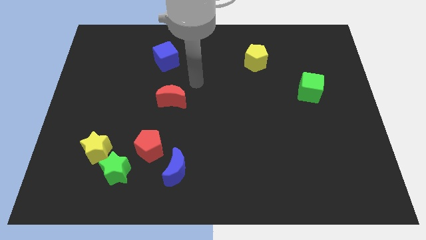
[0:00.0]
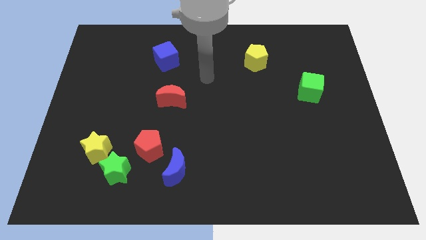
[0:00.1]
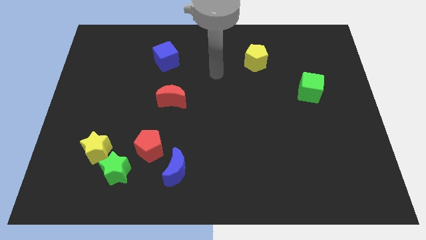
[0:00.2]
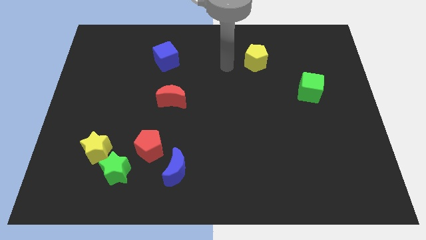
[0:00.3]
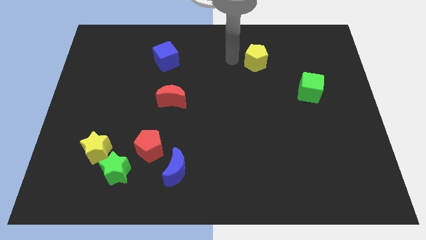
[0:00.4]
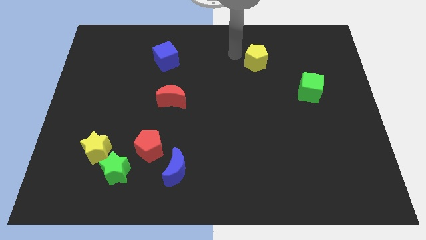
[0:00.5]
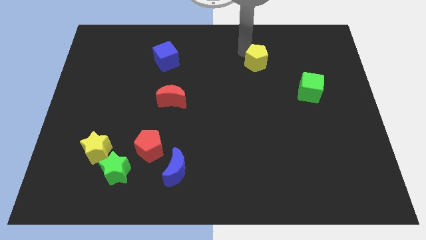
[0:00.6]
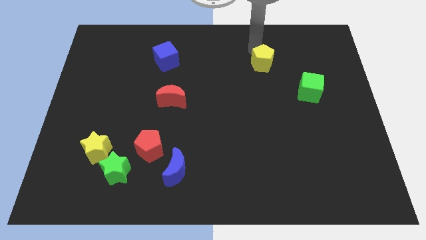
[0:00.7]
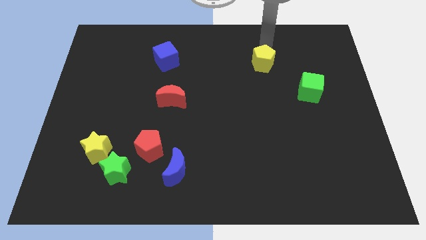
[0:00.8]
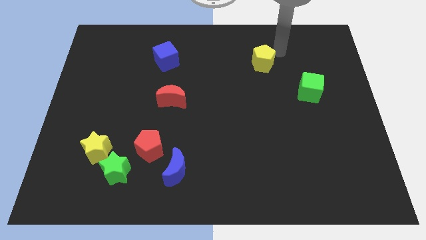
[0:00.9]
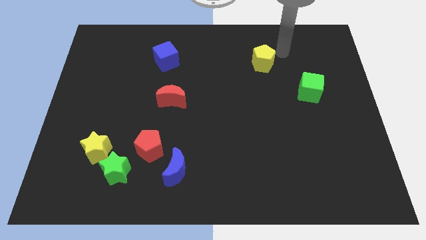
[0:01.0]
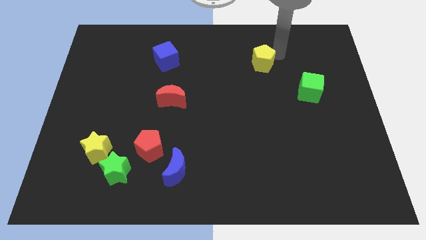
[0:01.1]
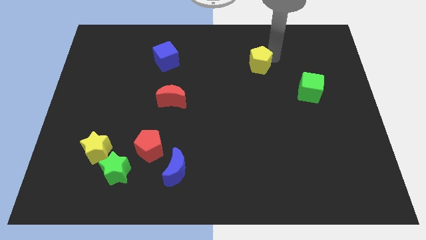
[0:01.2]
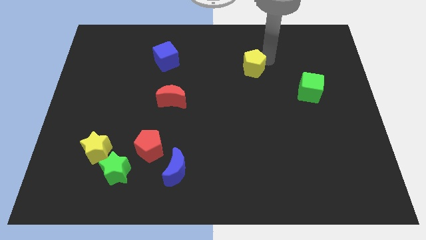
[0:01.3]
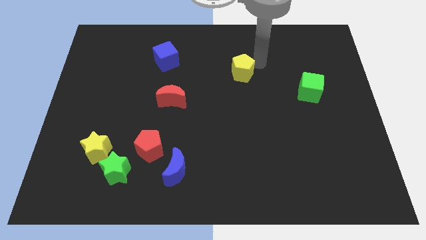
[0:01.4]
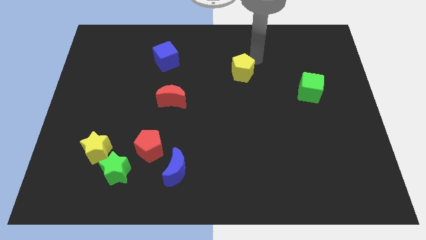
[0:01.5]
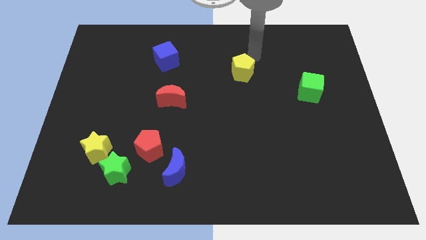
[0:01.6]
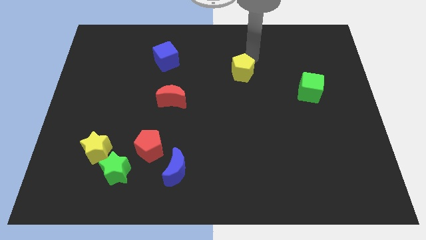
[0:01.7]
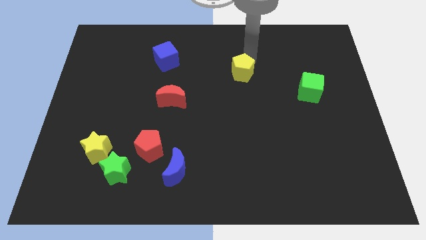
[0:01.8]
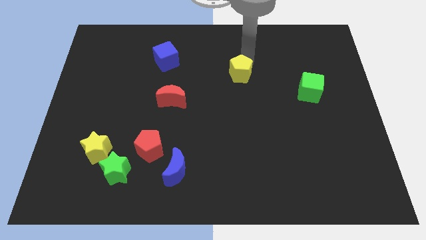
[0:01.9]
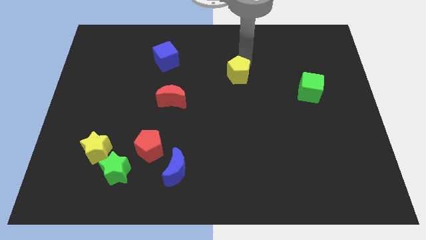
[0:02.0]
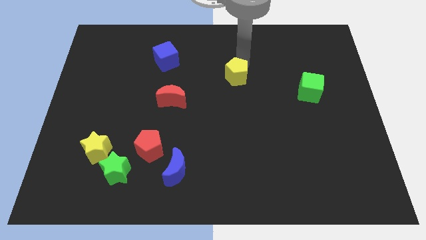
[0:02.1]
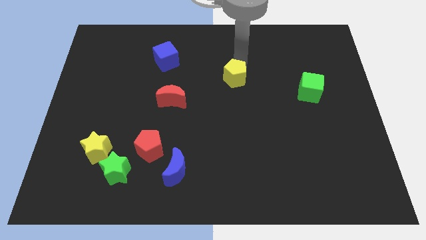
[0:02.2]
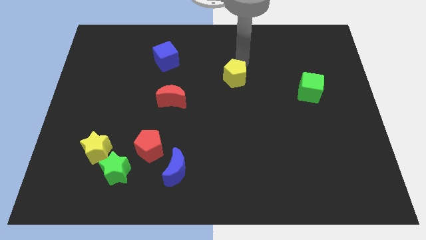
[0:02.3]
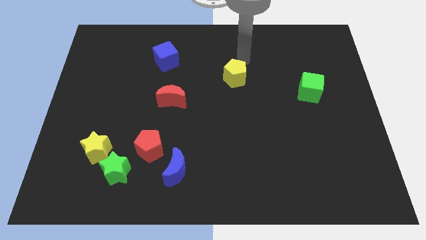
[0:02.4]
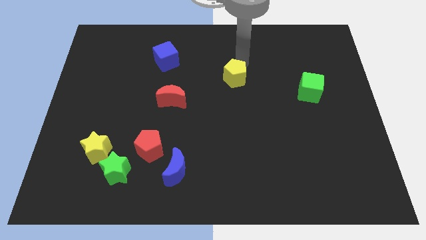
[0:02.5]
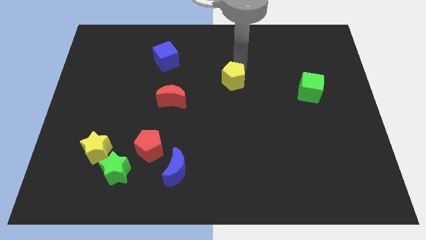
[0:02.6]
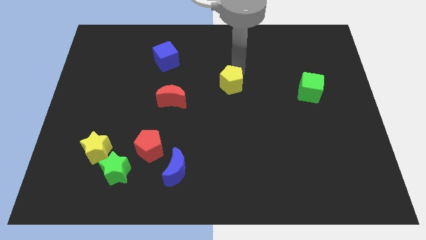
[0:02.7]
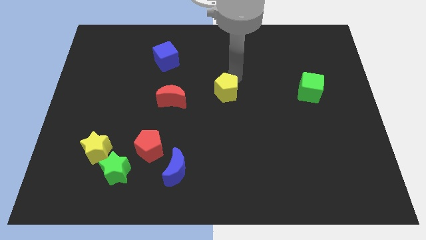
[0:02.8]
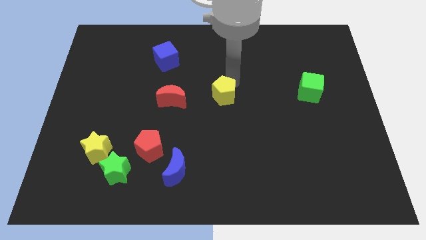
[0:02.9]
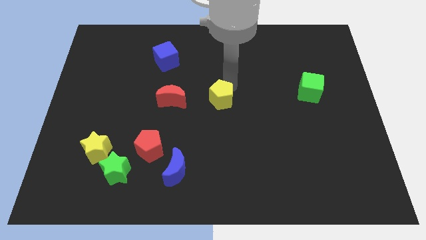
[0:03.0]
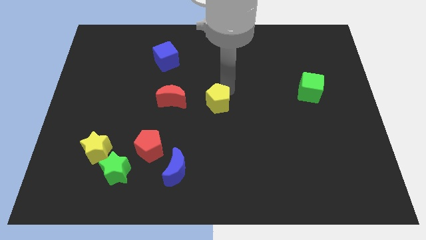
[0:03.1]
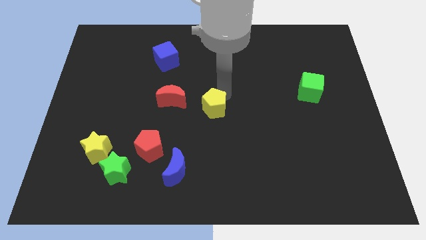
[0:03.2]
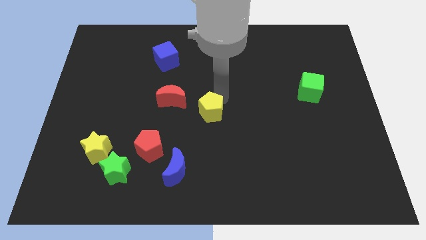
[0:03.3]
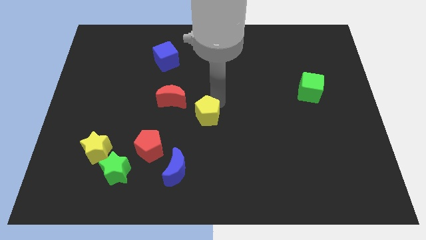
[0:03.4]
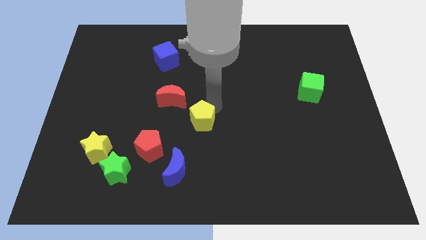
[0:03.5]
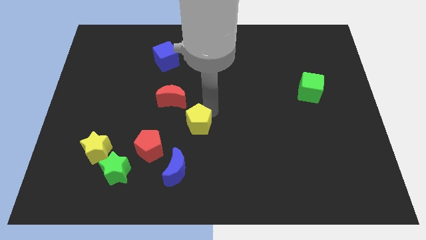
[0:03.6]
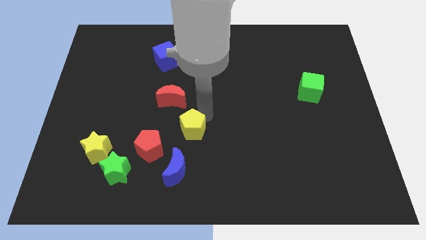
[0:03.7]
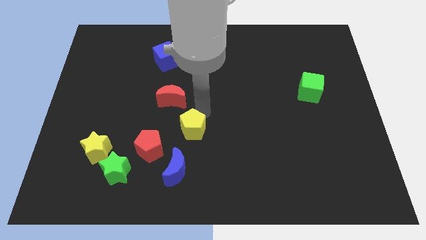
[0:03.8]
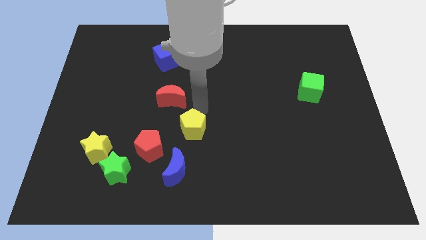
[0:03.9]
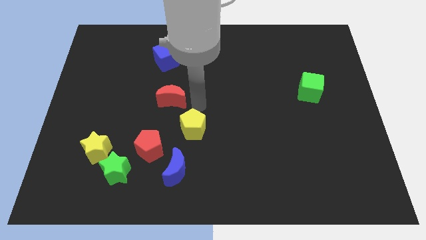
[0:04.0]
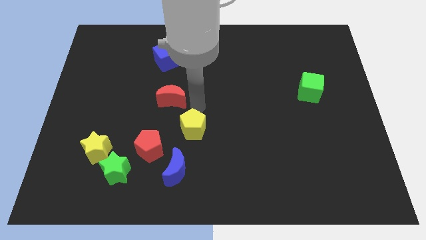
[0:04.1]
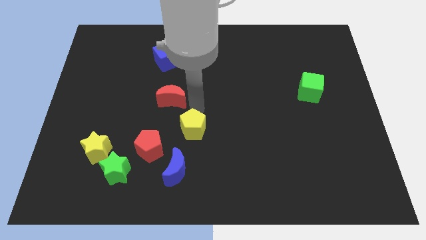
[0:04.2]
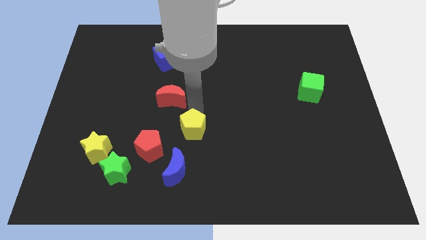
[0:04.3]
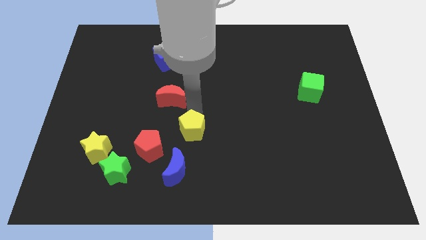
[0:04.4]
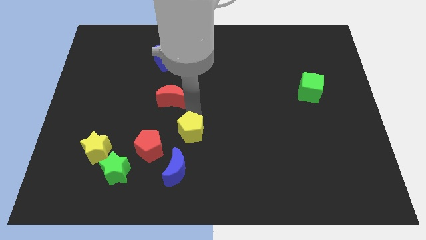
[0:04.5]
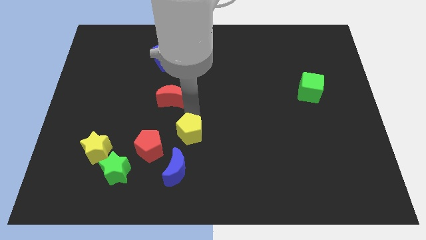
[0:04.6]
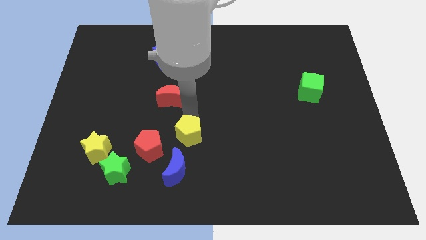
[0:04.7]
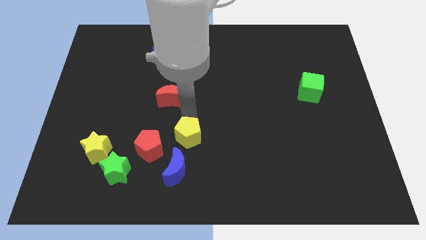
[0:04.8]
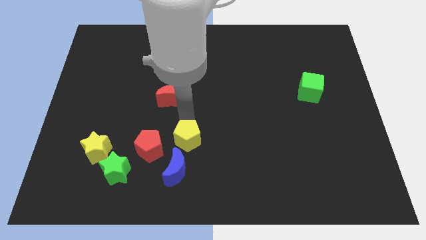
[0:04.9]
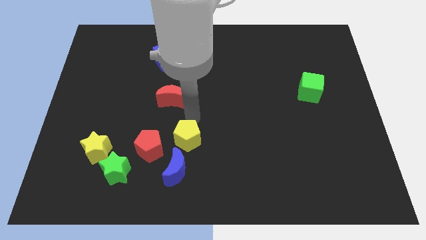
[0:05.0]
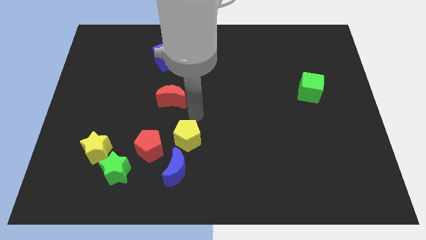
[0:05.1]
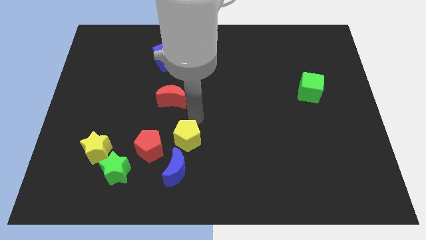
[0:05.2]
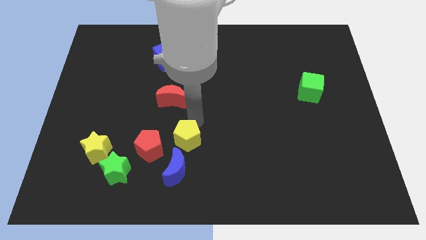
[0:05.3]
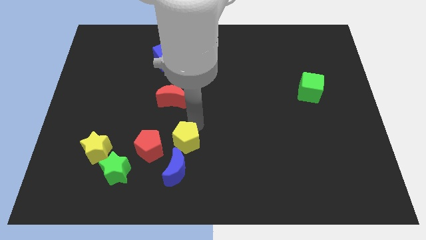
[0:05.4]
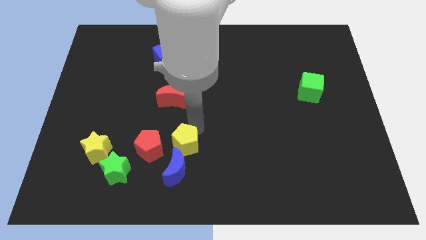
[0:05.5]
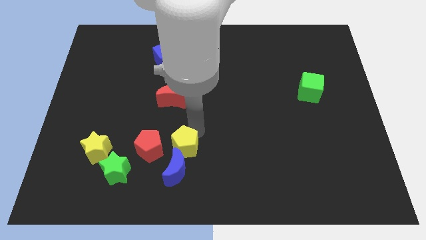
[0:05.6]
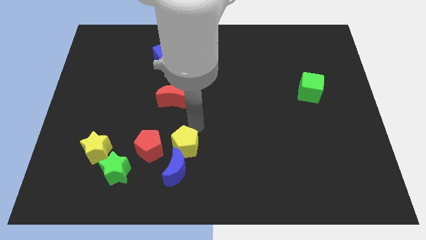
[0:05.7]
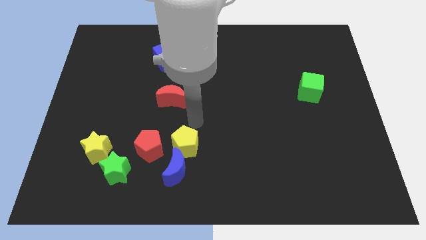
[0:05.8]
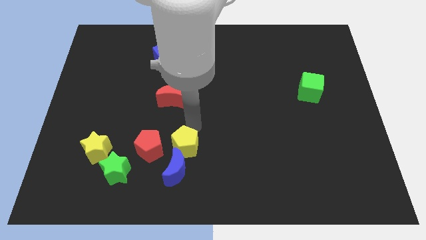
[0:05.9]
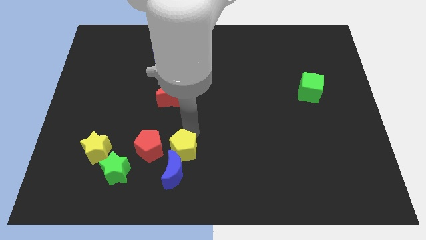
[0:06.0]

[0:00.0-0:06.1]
put the yellow pentagon next to the blue moon
